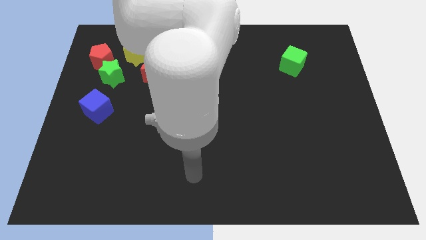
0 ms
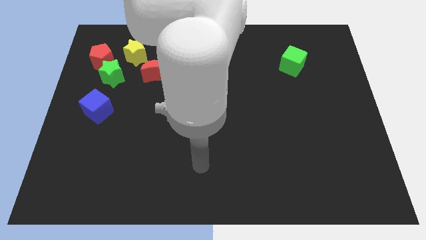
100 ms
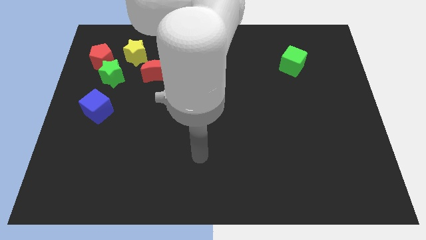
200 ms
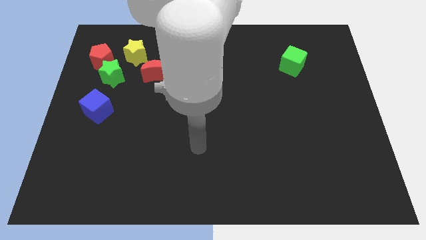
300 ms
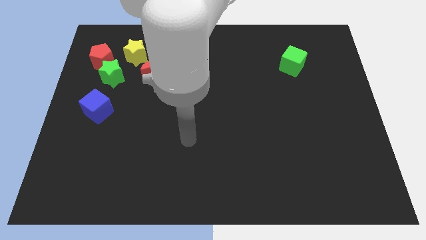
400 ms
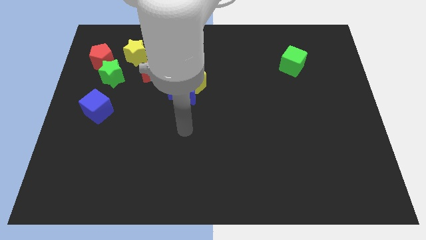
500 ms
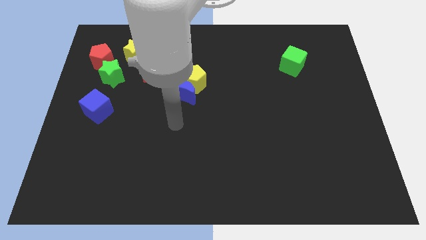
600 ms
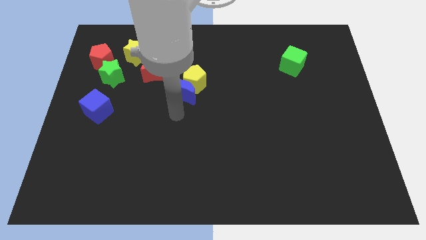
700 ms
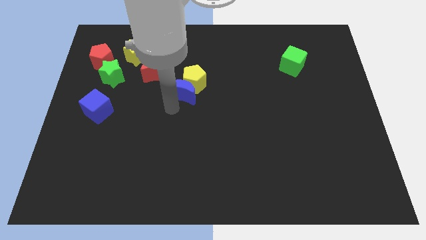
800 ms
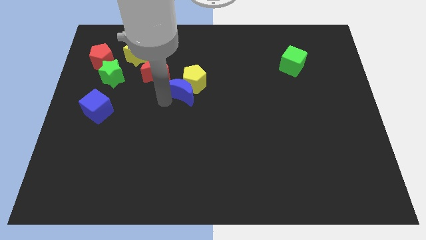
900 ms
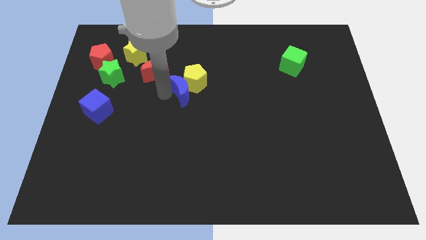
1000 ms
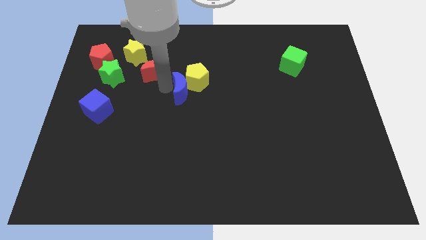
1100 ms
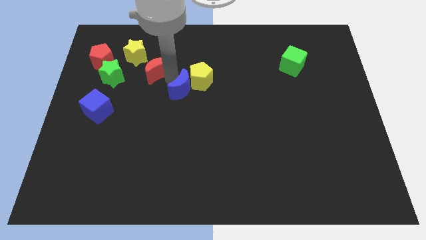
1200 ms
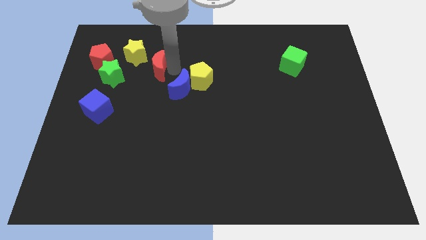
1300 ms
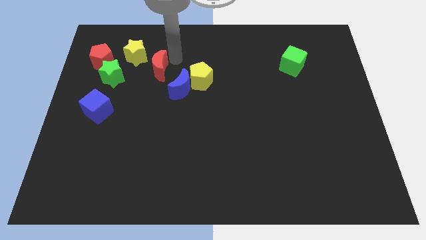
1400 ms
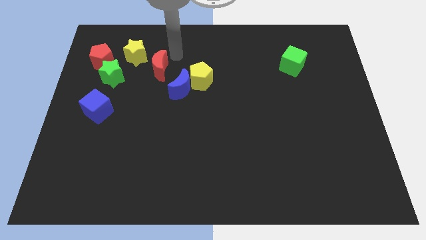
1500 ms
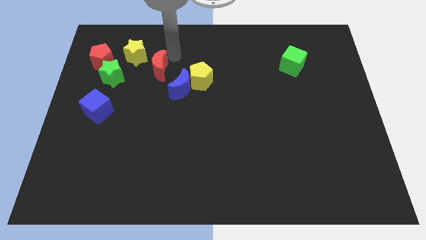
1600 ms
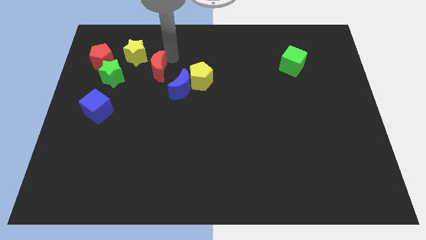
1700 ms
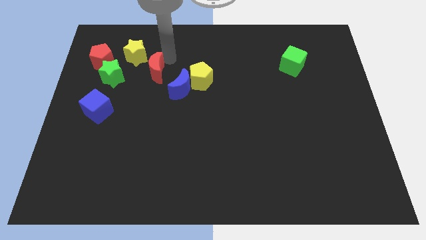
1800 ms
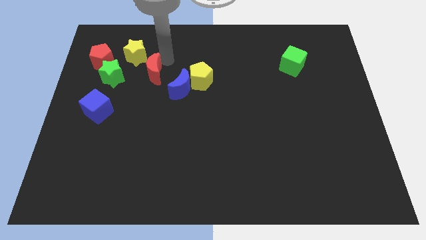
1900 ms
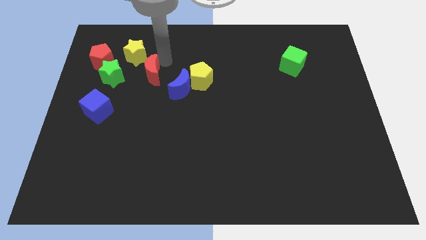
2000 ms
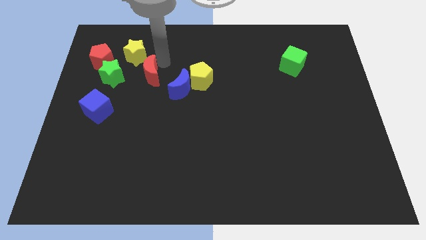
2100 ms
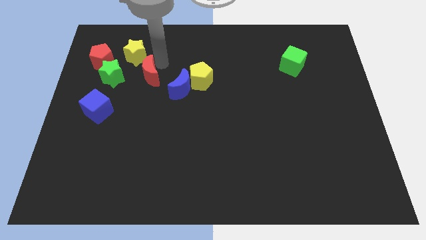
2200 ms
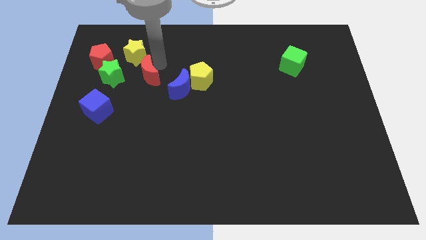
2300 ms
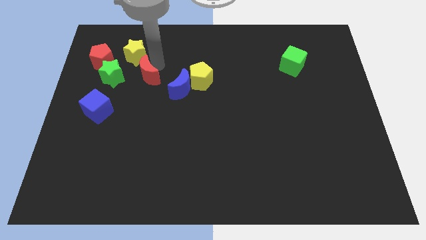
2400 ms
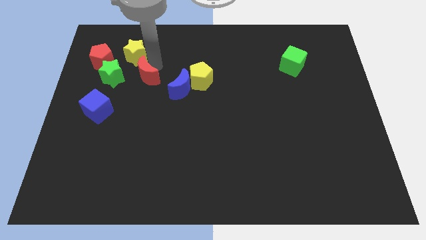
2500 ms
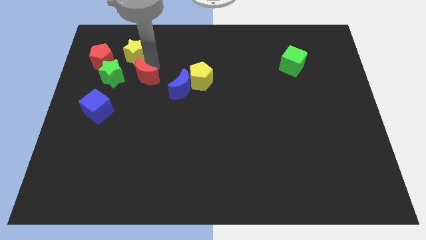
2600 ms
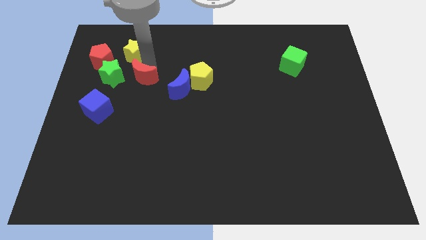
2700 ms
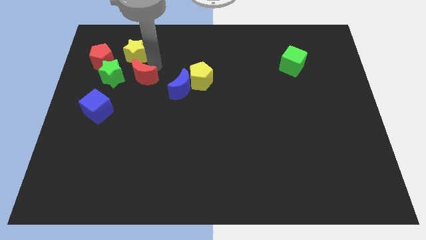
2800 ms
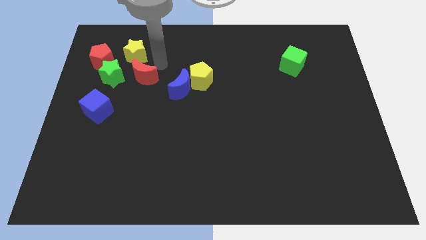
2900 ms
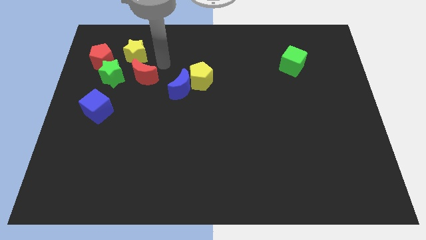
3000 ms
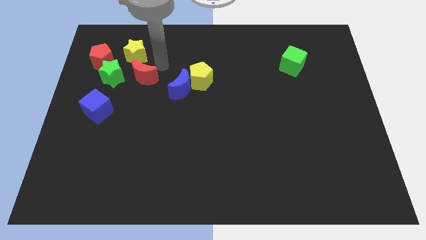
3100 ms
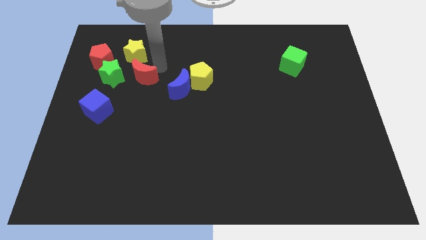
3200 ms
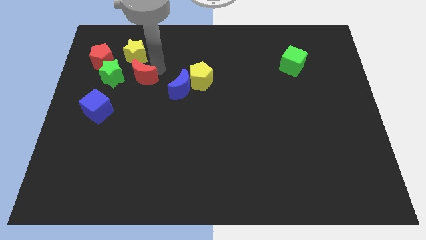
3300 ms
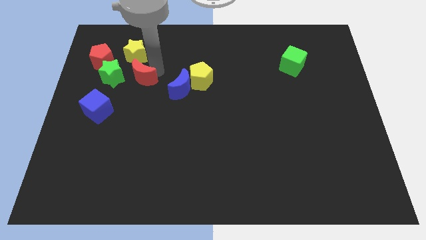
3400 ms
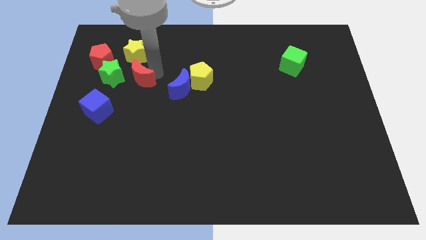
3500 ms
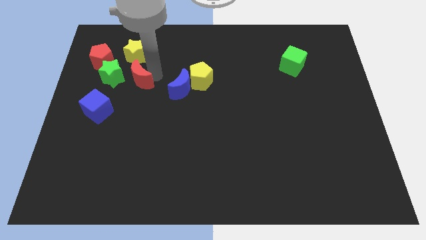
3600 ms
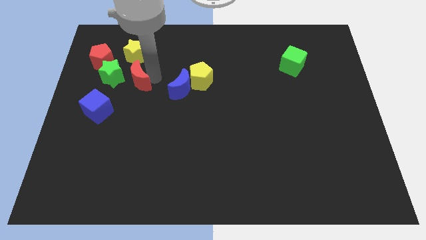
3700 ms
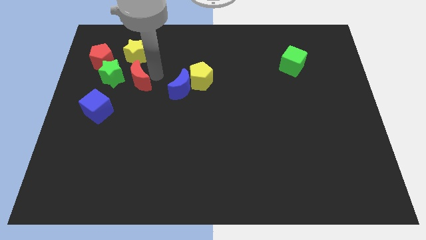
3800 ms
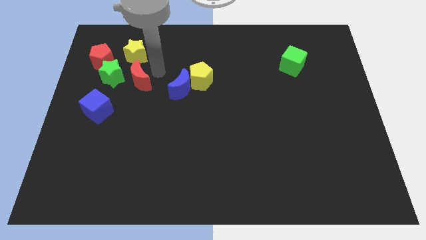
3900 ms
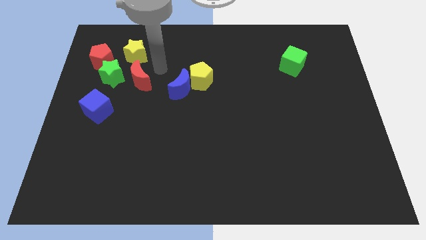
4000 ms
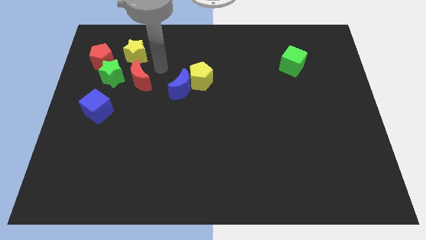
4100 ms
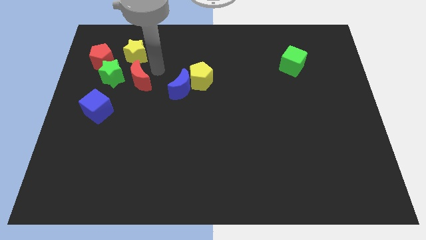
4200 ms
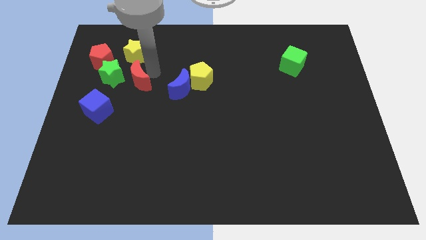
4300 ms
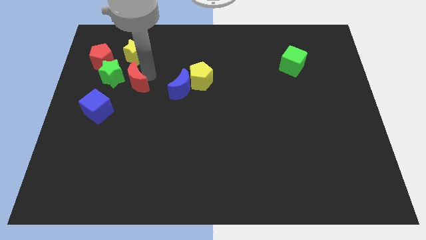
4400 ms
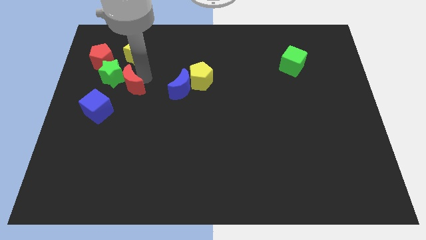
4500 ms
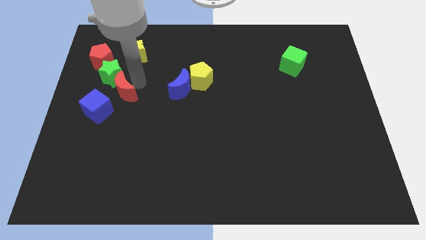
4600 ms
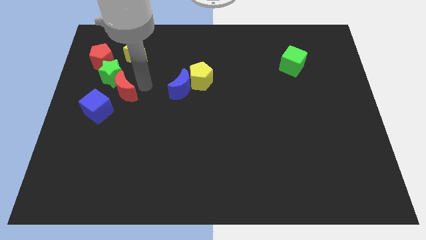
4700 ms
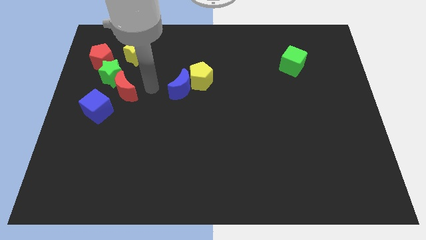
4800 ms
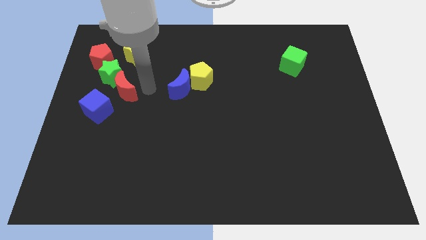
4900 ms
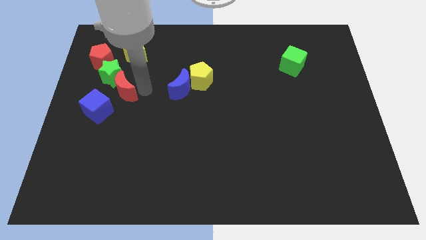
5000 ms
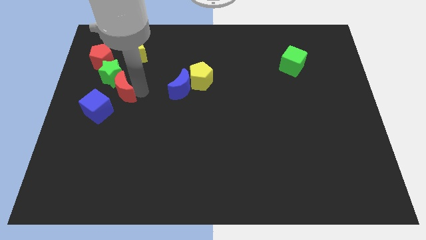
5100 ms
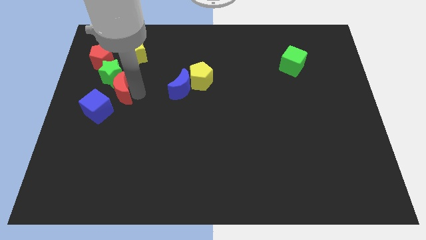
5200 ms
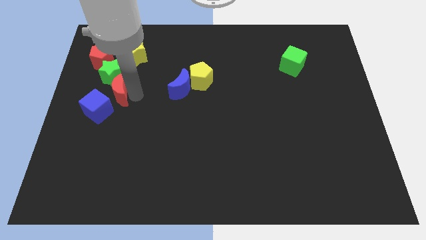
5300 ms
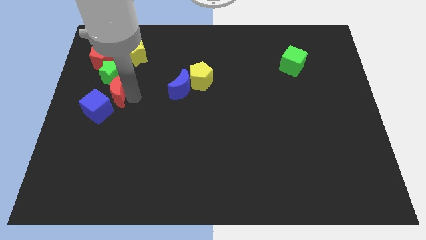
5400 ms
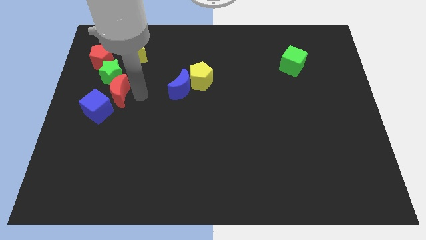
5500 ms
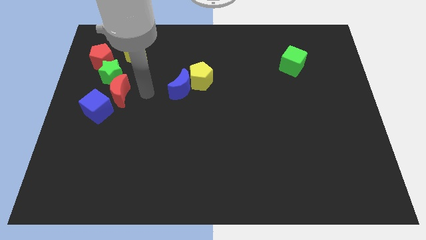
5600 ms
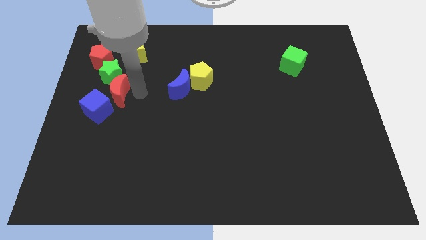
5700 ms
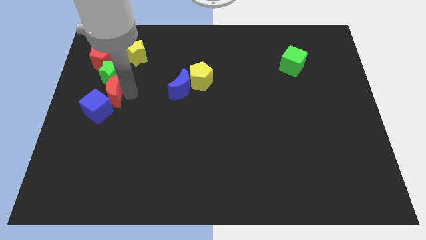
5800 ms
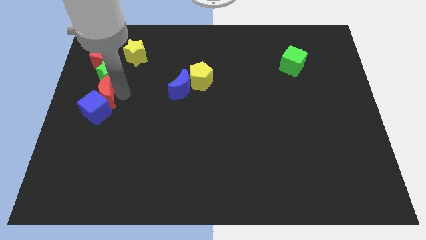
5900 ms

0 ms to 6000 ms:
slide the red moon to the center left

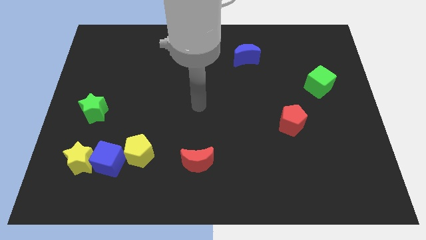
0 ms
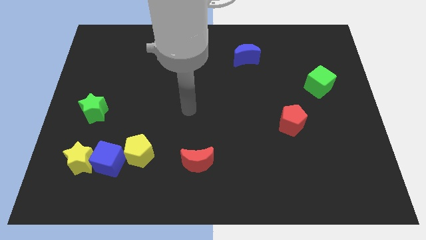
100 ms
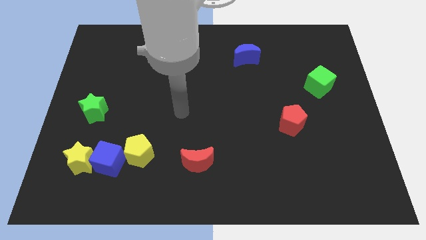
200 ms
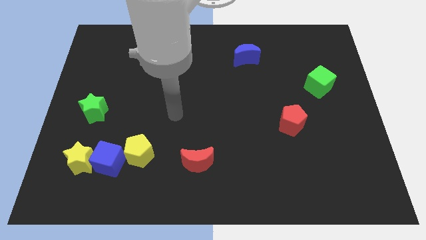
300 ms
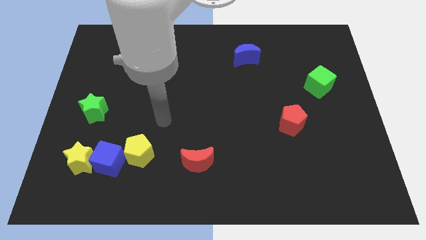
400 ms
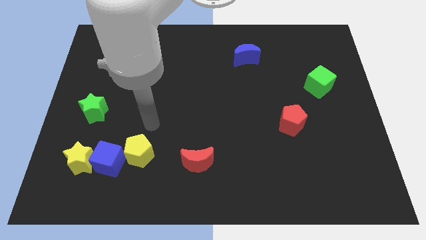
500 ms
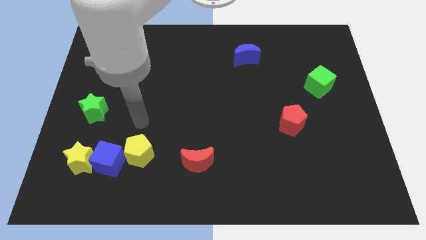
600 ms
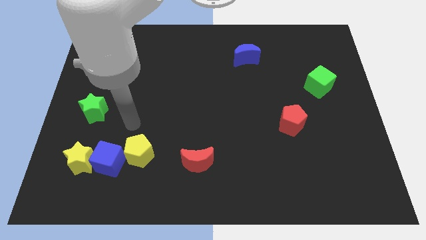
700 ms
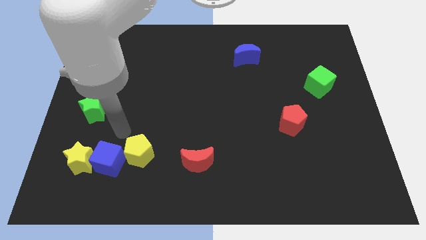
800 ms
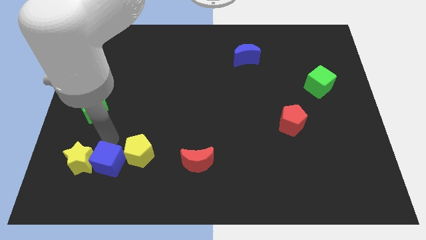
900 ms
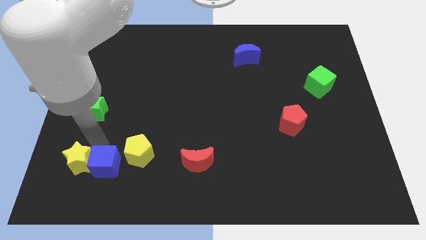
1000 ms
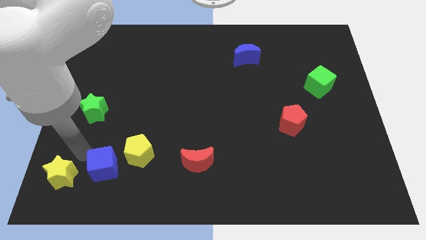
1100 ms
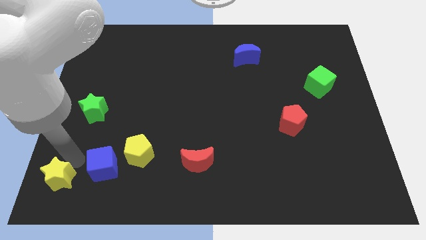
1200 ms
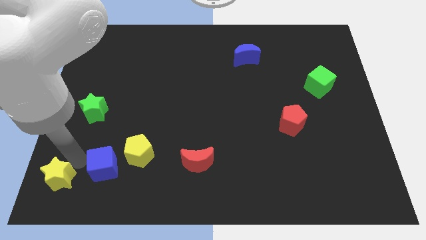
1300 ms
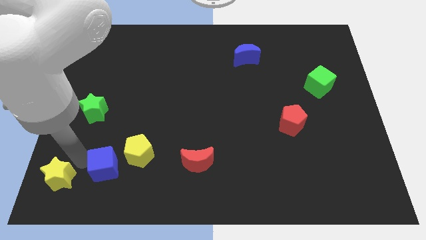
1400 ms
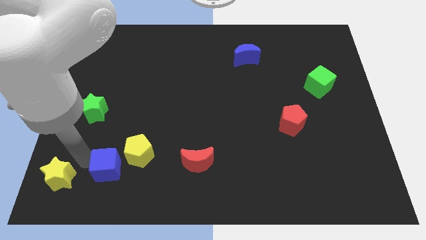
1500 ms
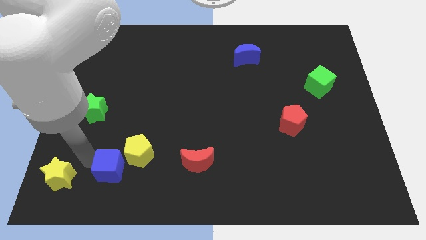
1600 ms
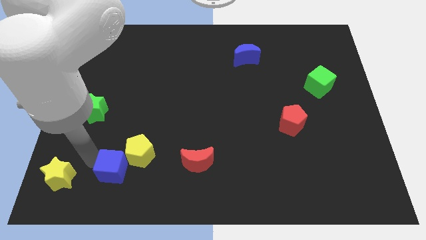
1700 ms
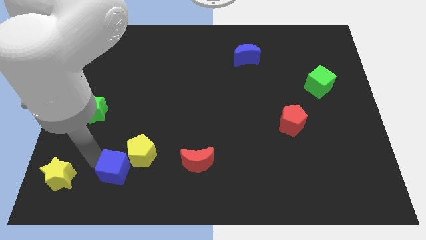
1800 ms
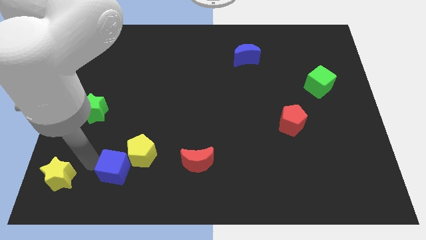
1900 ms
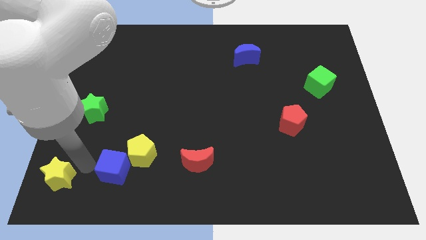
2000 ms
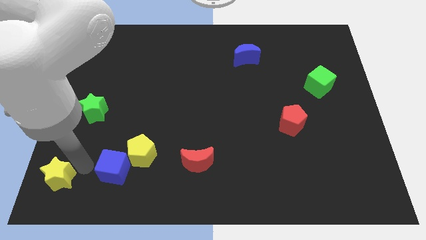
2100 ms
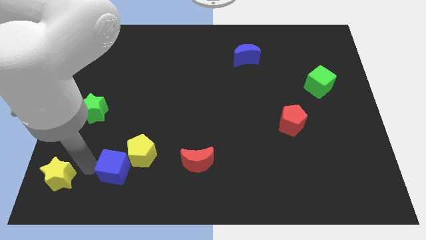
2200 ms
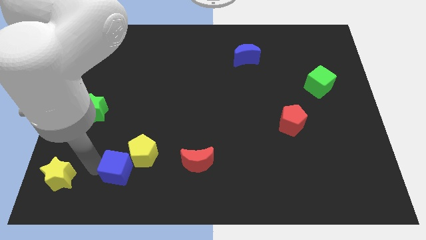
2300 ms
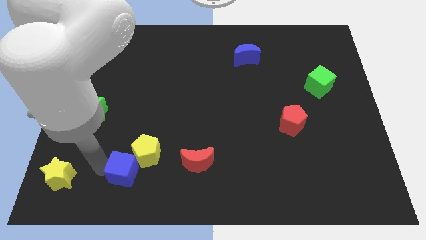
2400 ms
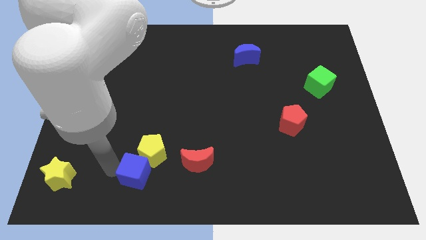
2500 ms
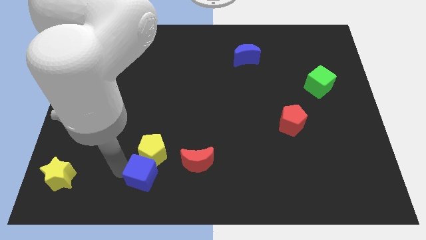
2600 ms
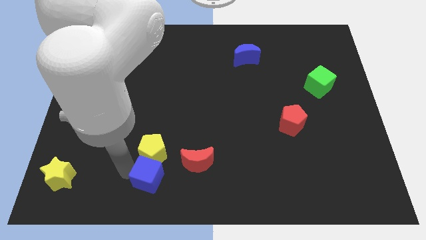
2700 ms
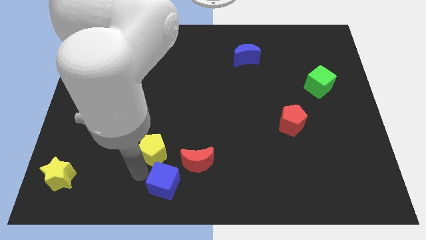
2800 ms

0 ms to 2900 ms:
move the blue cube to the bottom
